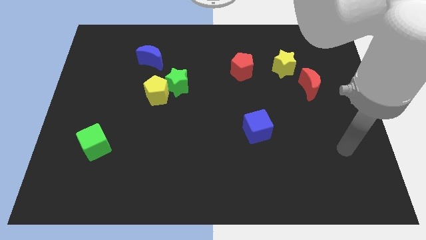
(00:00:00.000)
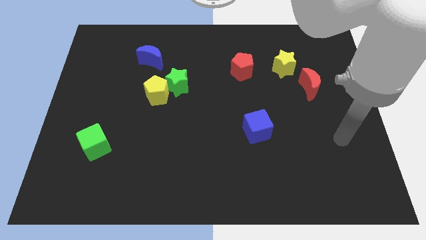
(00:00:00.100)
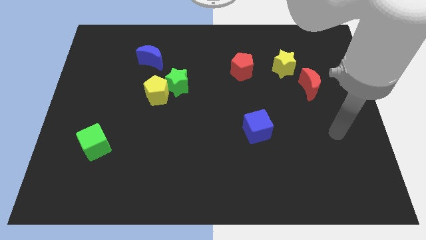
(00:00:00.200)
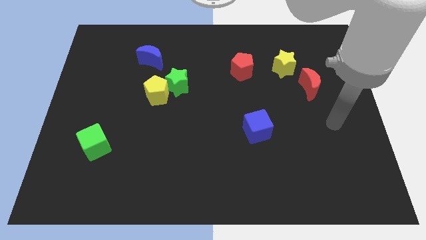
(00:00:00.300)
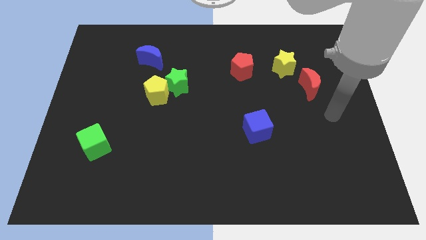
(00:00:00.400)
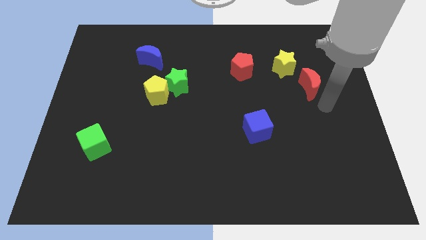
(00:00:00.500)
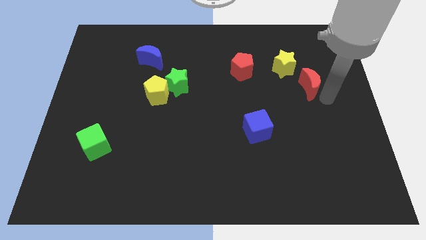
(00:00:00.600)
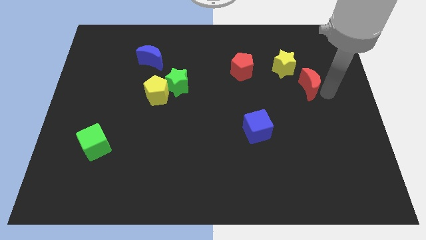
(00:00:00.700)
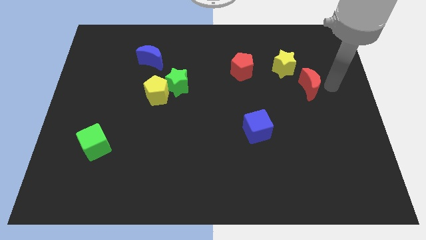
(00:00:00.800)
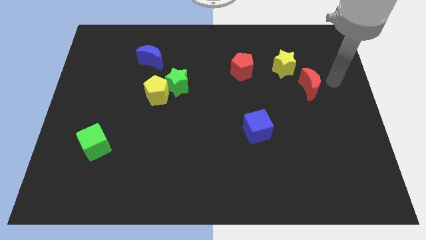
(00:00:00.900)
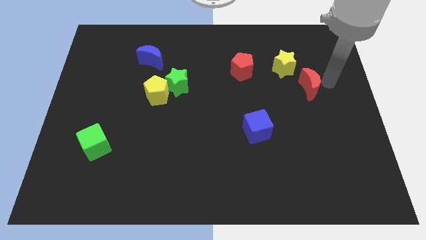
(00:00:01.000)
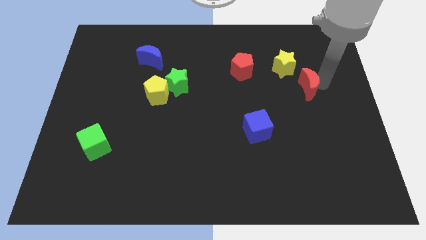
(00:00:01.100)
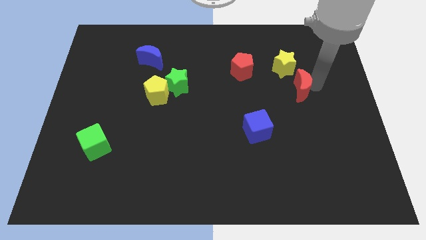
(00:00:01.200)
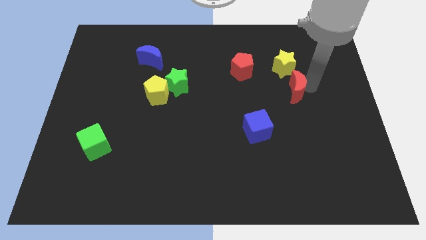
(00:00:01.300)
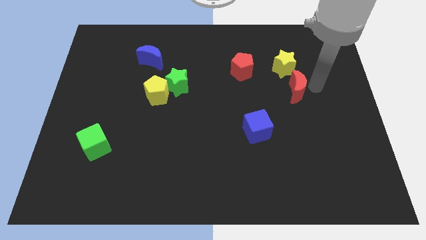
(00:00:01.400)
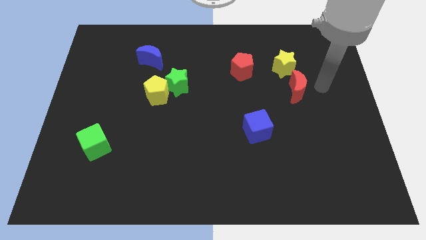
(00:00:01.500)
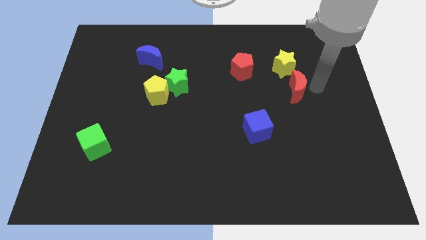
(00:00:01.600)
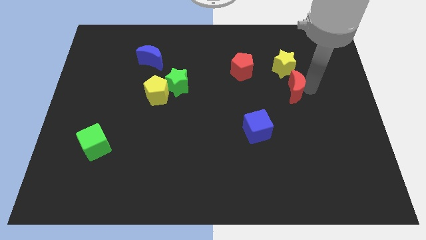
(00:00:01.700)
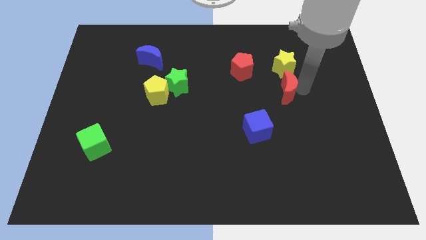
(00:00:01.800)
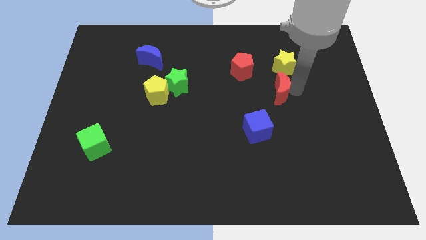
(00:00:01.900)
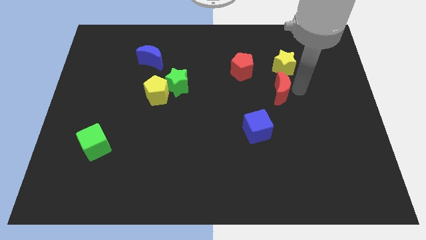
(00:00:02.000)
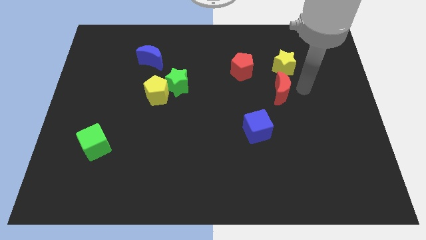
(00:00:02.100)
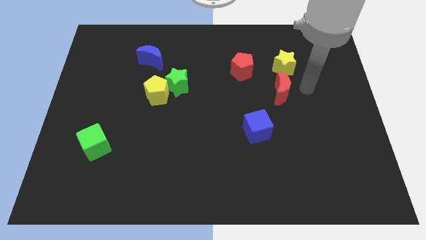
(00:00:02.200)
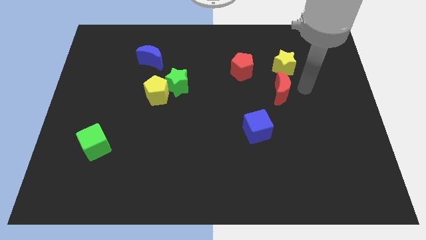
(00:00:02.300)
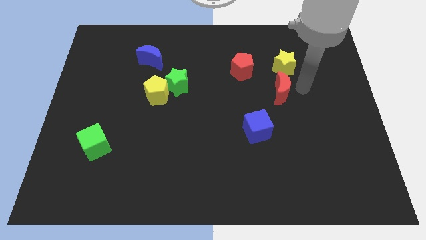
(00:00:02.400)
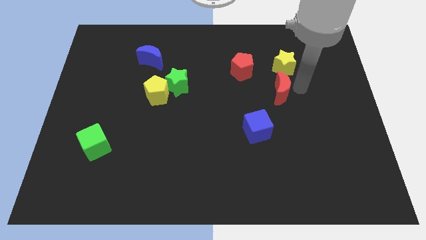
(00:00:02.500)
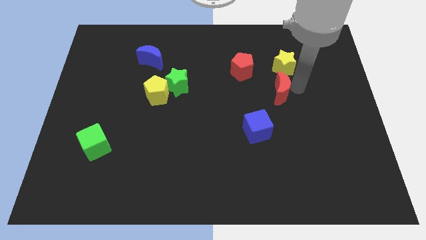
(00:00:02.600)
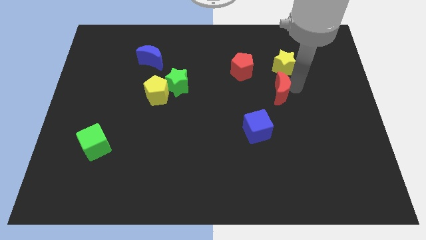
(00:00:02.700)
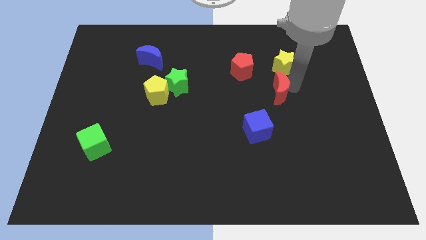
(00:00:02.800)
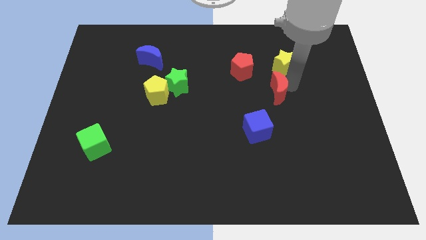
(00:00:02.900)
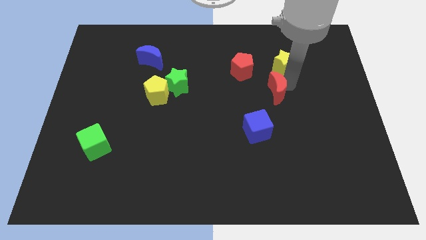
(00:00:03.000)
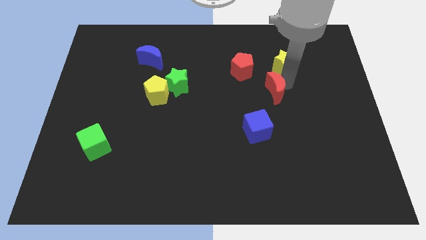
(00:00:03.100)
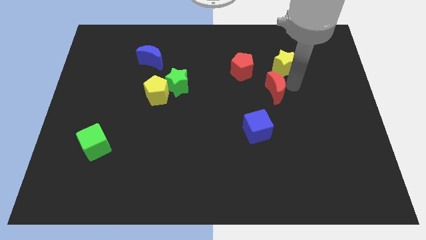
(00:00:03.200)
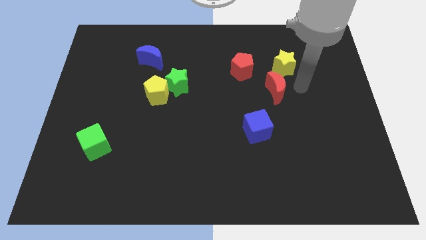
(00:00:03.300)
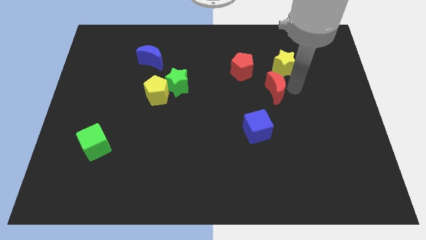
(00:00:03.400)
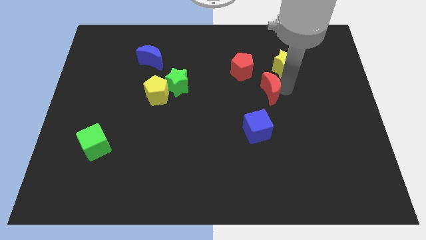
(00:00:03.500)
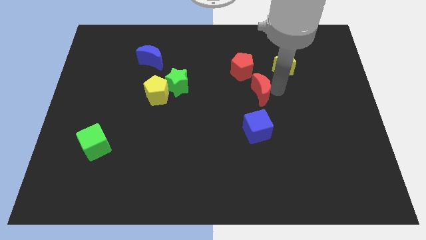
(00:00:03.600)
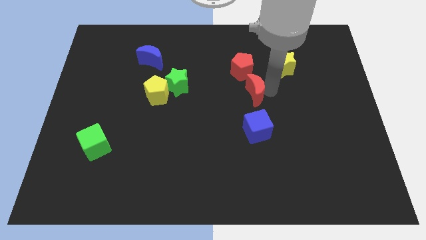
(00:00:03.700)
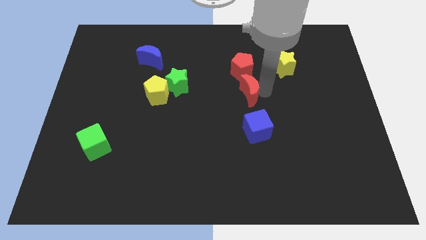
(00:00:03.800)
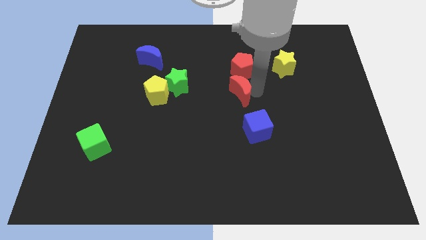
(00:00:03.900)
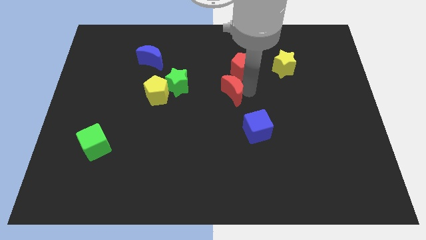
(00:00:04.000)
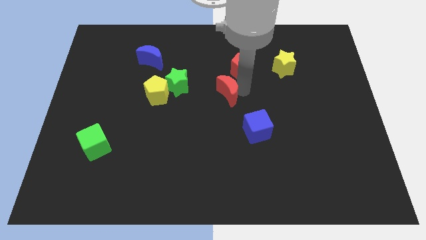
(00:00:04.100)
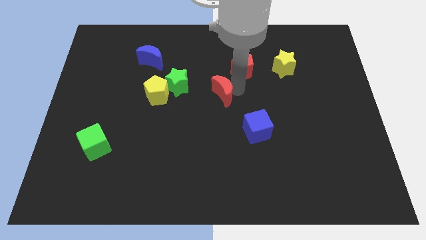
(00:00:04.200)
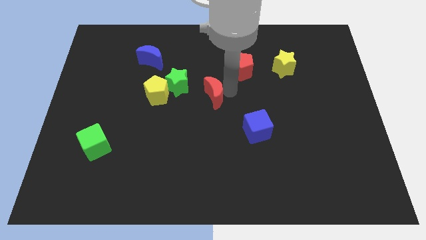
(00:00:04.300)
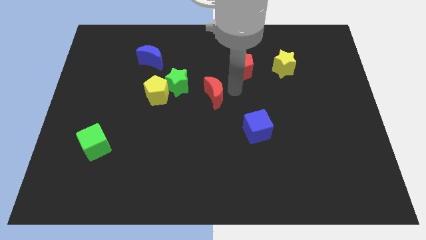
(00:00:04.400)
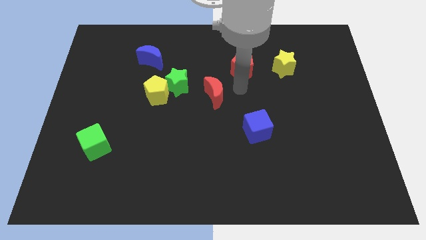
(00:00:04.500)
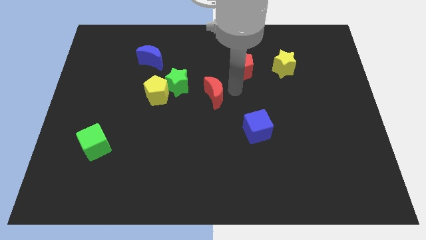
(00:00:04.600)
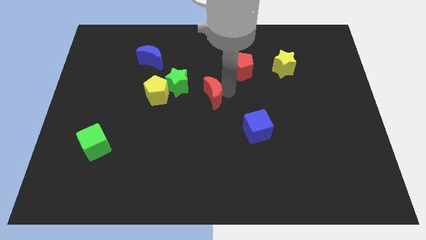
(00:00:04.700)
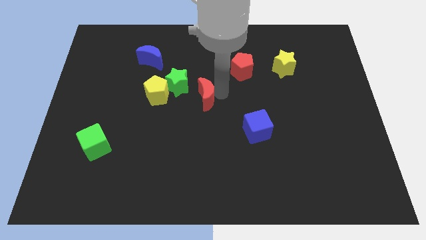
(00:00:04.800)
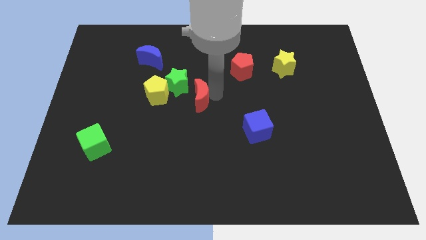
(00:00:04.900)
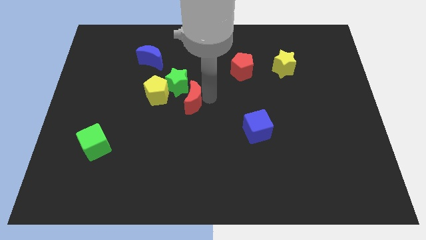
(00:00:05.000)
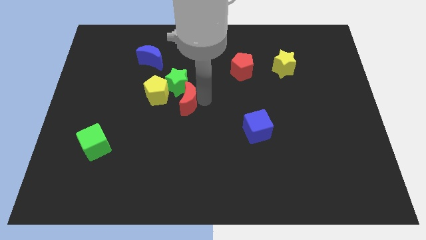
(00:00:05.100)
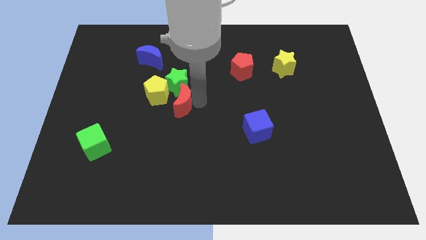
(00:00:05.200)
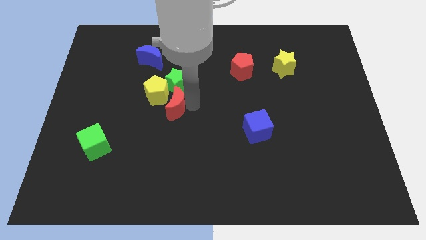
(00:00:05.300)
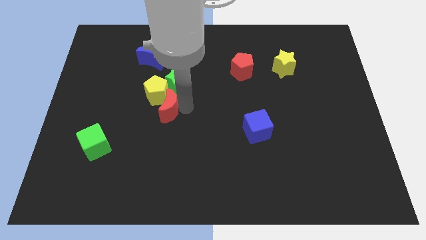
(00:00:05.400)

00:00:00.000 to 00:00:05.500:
push the red moon close to the yellow pentagon

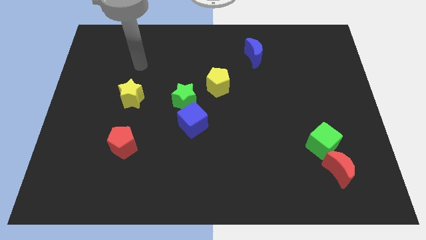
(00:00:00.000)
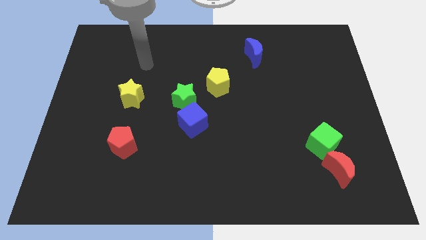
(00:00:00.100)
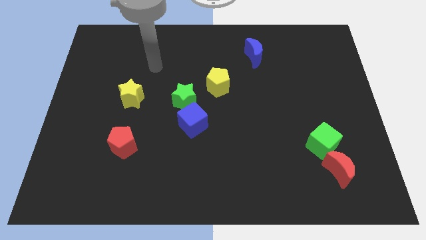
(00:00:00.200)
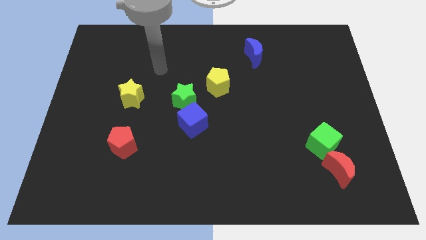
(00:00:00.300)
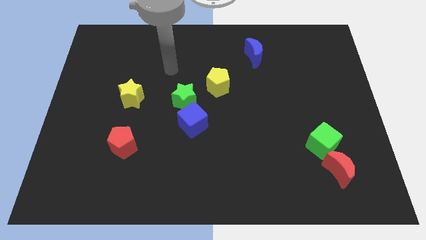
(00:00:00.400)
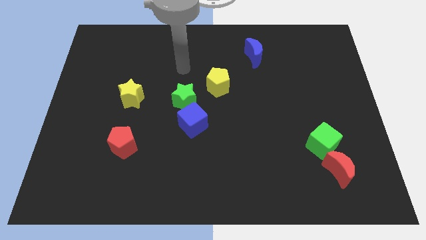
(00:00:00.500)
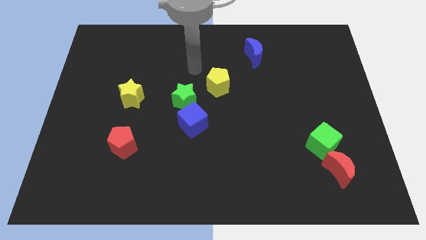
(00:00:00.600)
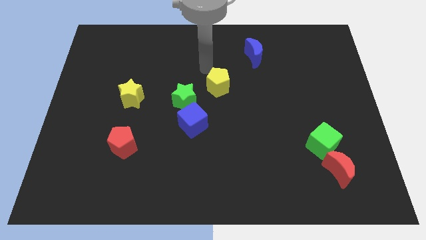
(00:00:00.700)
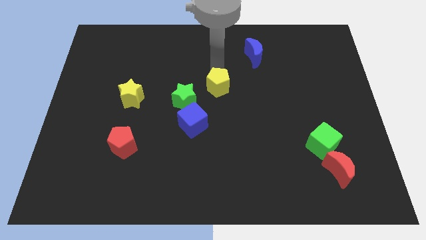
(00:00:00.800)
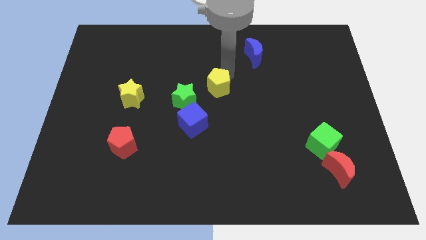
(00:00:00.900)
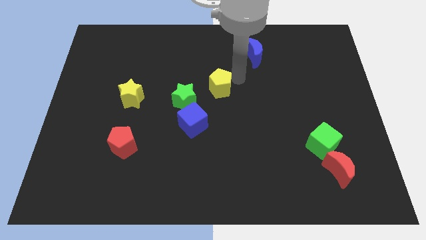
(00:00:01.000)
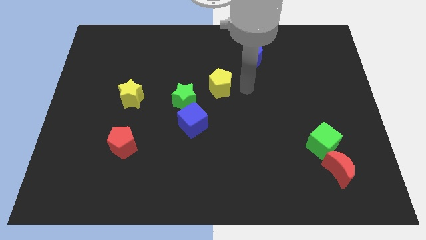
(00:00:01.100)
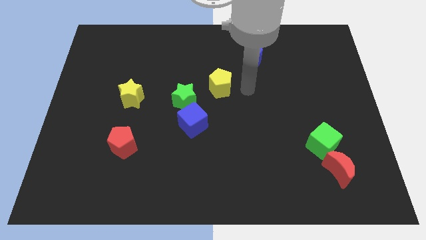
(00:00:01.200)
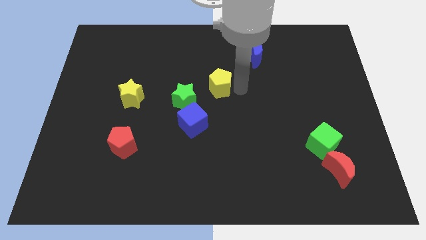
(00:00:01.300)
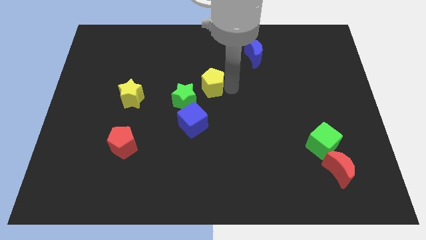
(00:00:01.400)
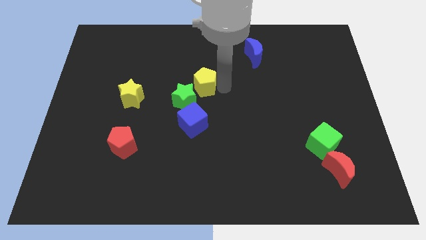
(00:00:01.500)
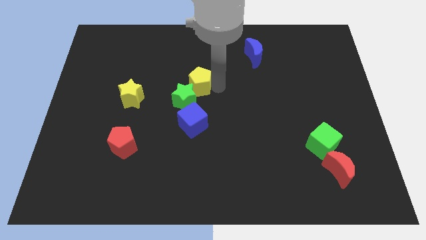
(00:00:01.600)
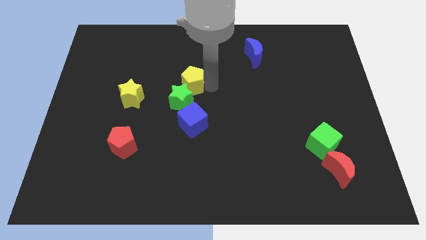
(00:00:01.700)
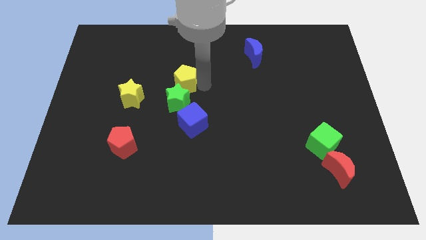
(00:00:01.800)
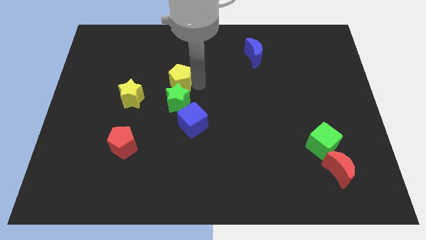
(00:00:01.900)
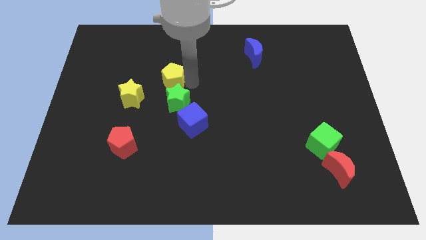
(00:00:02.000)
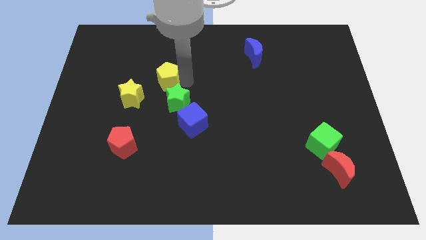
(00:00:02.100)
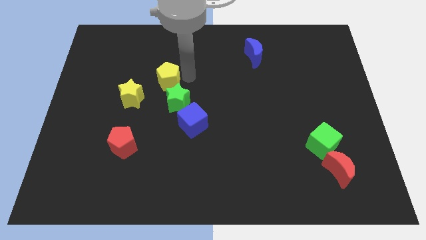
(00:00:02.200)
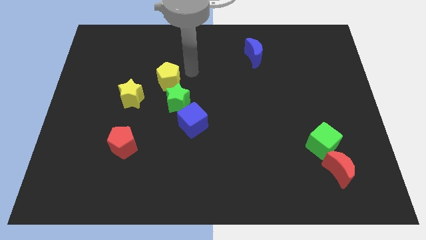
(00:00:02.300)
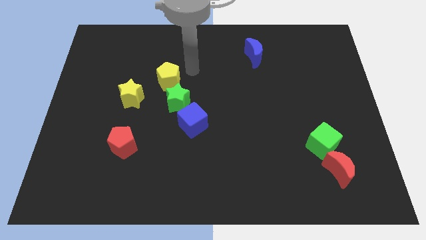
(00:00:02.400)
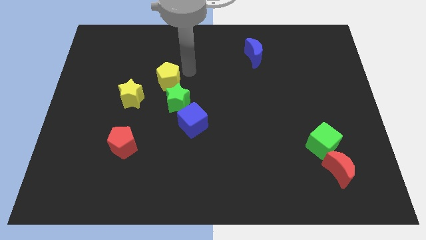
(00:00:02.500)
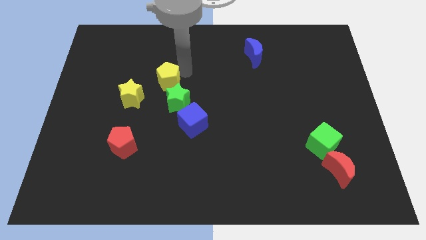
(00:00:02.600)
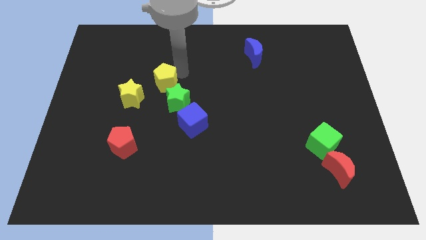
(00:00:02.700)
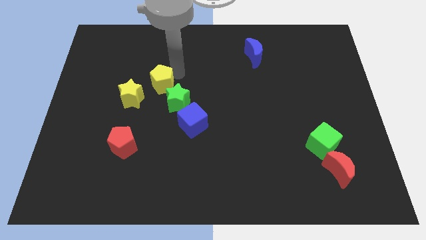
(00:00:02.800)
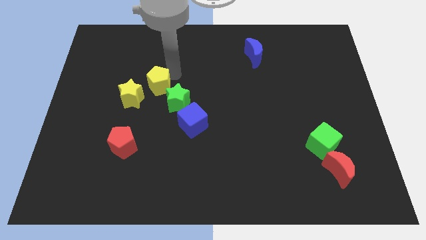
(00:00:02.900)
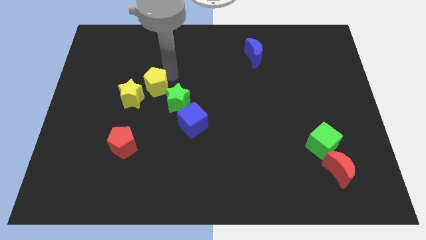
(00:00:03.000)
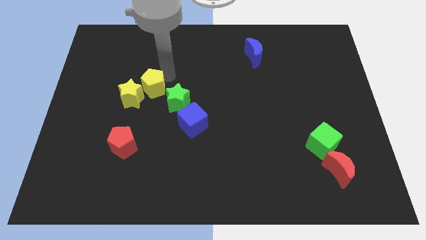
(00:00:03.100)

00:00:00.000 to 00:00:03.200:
push the yellow pentagon to the yellow star
